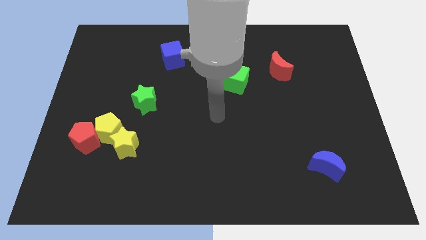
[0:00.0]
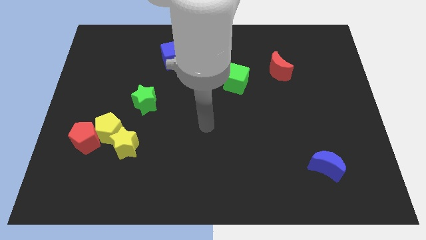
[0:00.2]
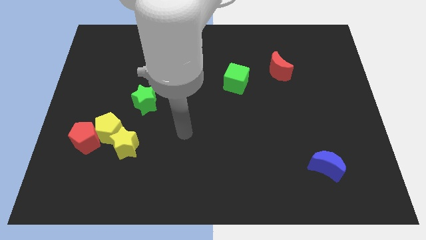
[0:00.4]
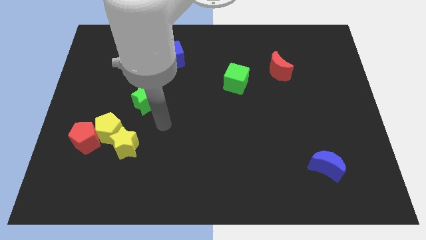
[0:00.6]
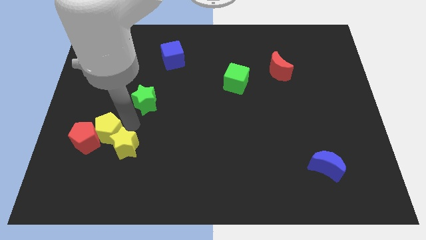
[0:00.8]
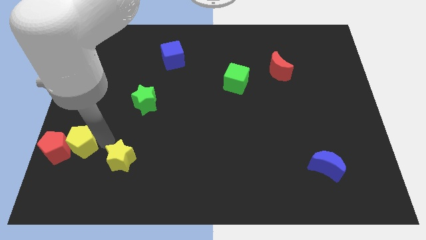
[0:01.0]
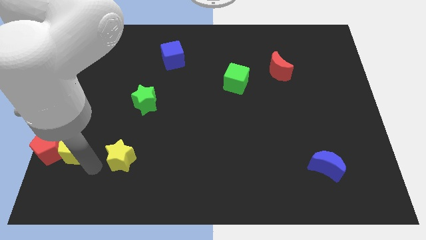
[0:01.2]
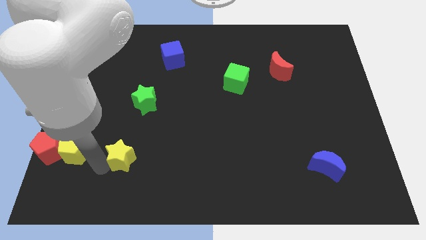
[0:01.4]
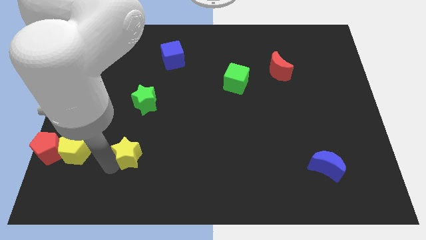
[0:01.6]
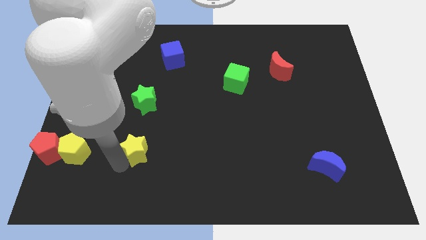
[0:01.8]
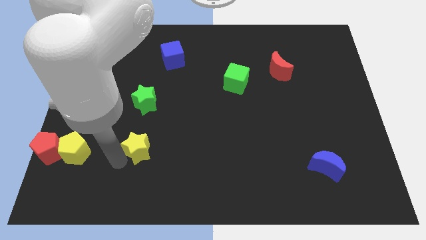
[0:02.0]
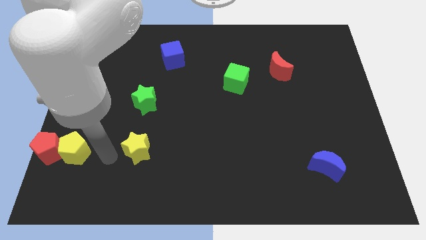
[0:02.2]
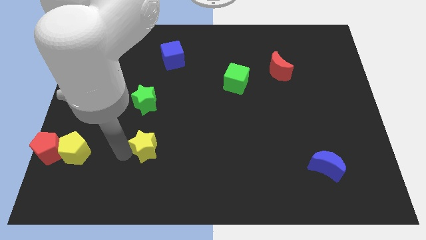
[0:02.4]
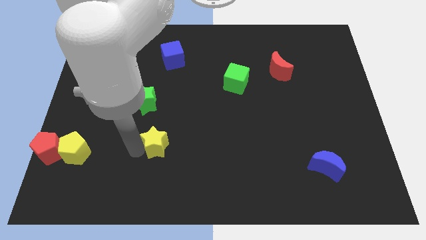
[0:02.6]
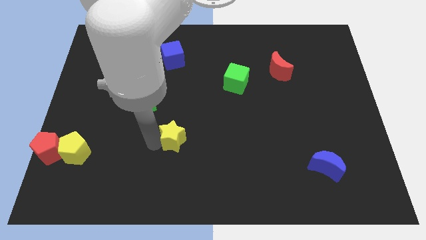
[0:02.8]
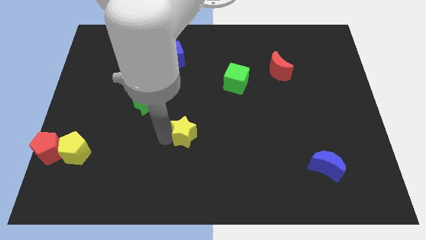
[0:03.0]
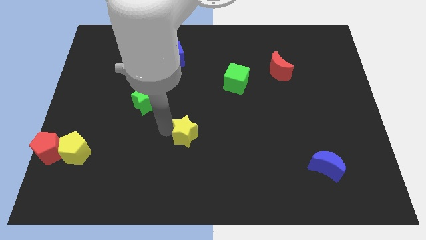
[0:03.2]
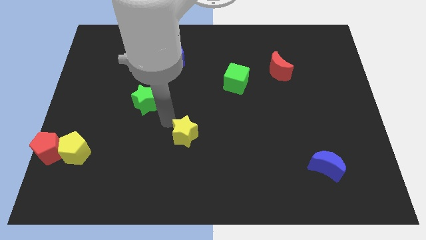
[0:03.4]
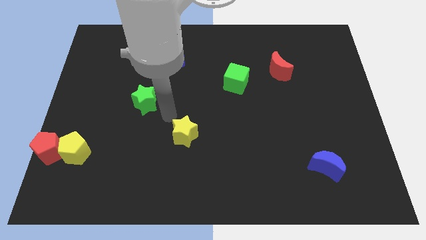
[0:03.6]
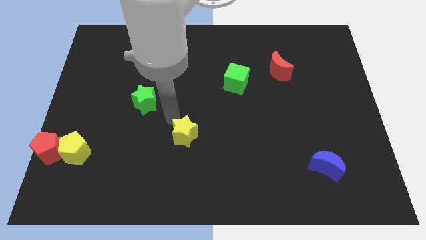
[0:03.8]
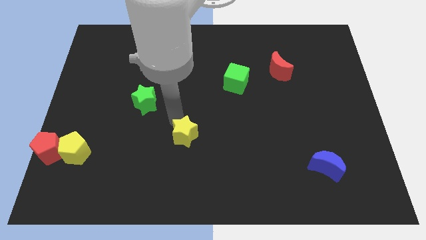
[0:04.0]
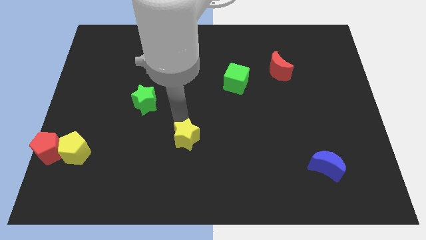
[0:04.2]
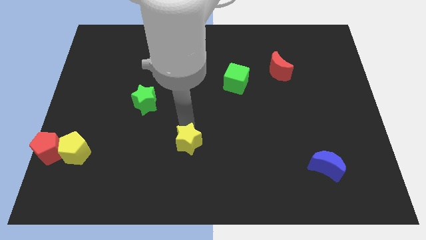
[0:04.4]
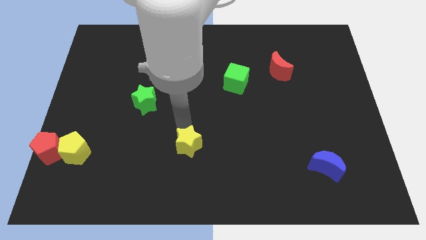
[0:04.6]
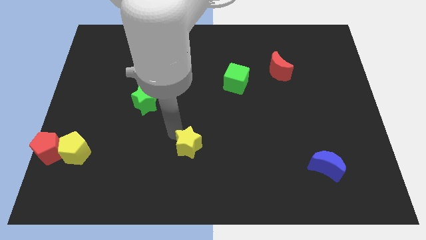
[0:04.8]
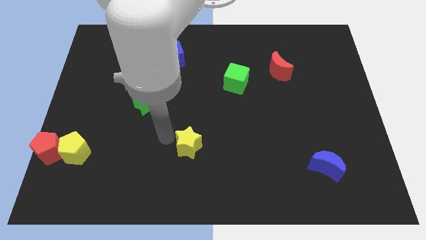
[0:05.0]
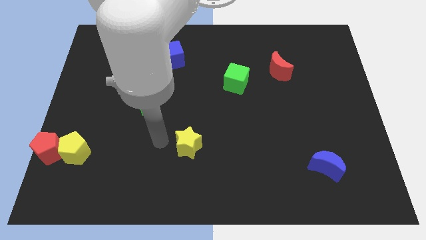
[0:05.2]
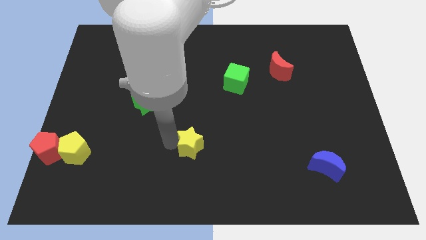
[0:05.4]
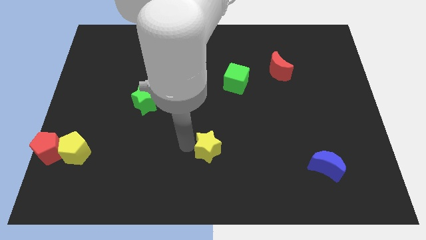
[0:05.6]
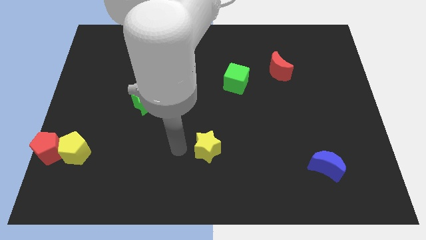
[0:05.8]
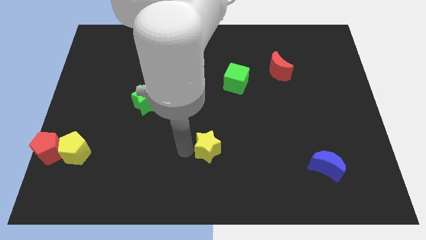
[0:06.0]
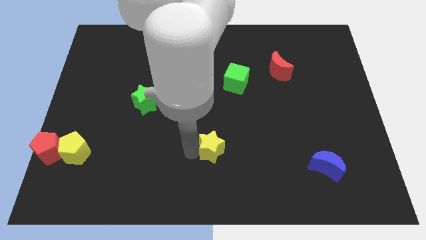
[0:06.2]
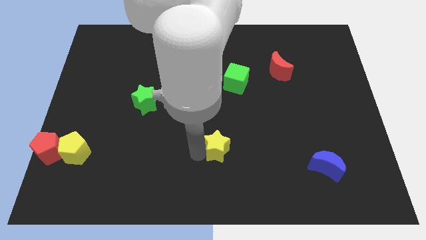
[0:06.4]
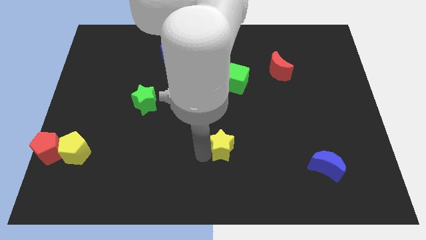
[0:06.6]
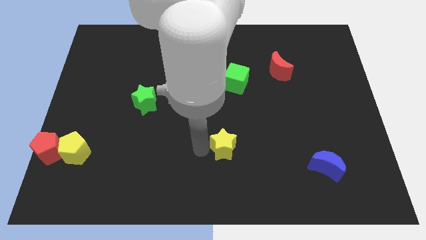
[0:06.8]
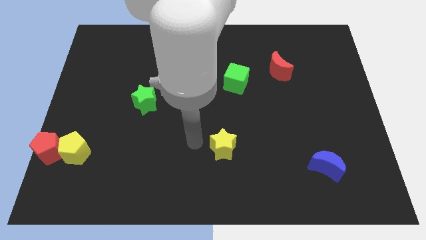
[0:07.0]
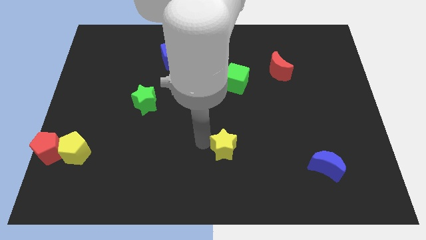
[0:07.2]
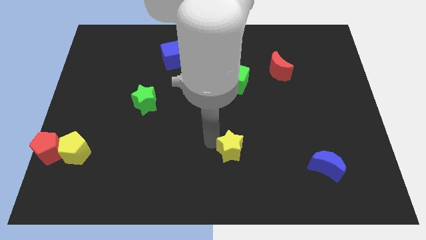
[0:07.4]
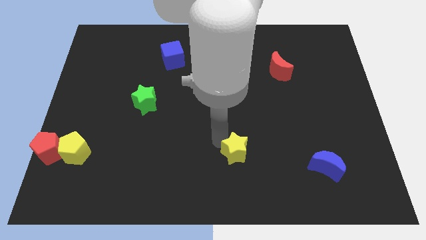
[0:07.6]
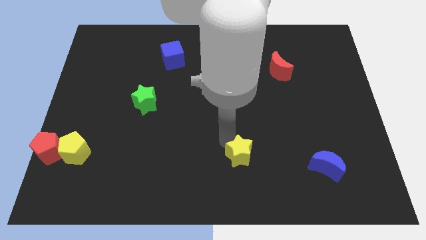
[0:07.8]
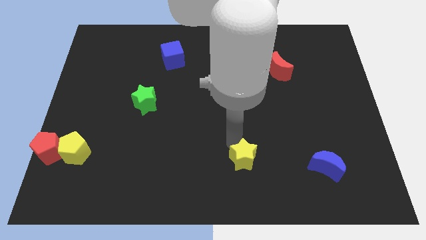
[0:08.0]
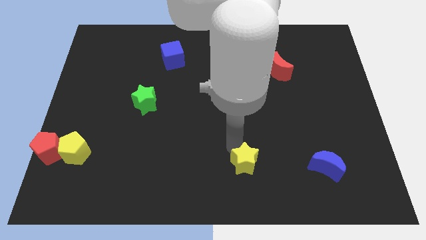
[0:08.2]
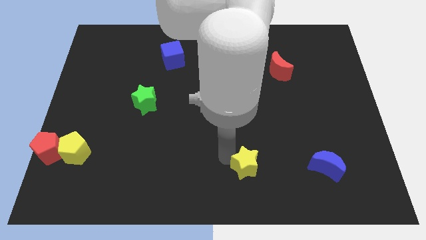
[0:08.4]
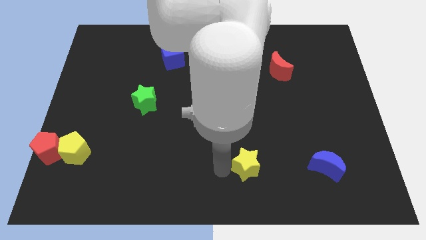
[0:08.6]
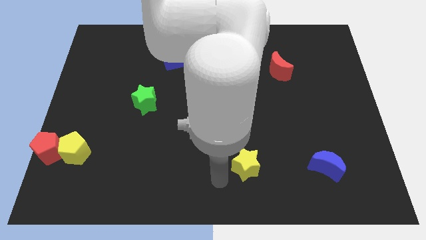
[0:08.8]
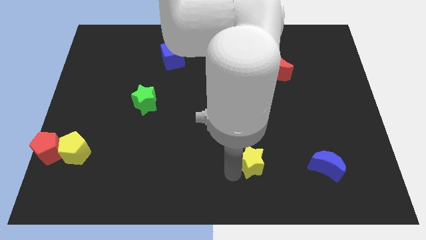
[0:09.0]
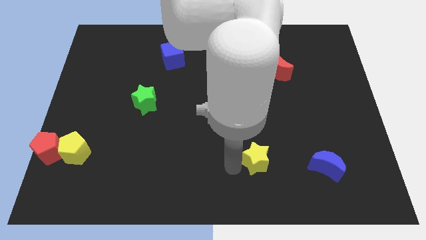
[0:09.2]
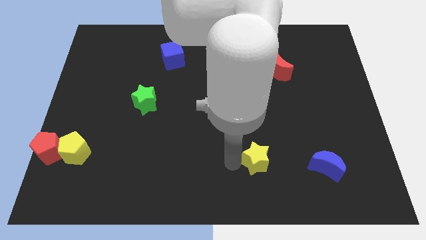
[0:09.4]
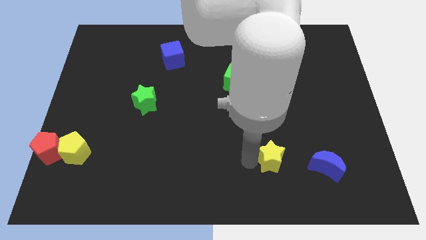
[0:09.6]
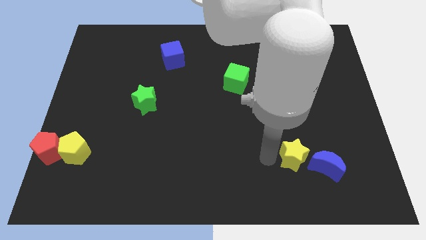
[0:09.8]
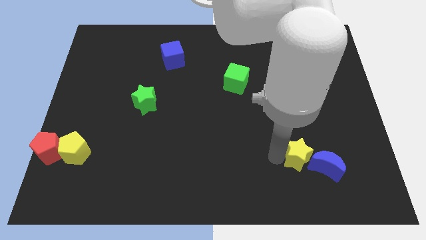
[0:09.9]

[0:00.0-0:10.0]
move the yellow star close to the blue moon

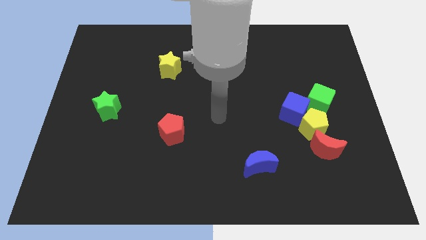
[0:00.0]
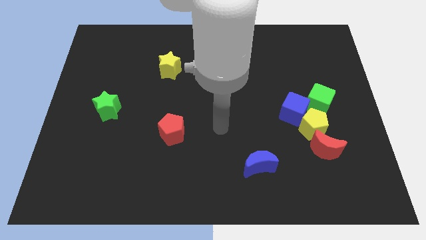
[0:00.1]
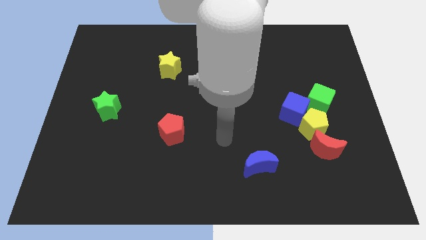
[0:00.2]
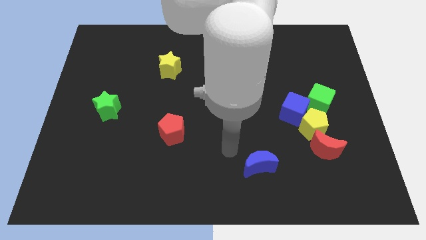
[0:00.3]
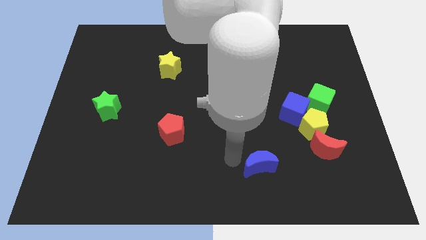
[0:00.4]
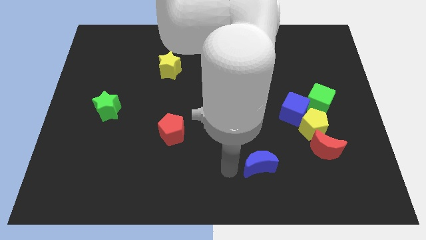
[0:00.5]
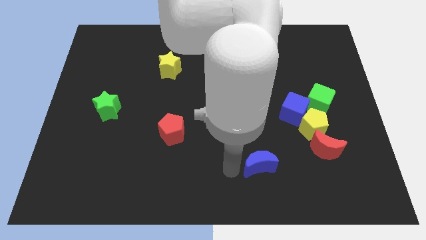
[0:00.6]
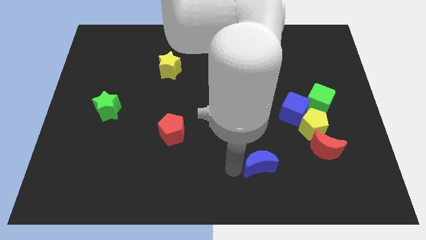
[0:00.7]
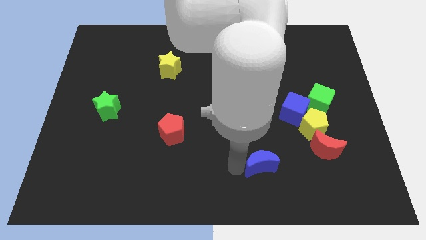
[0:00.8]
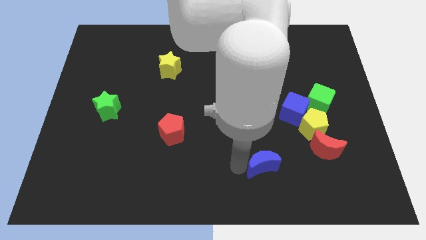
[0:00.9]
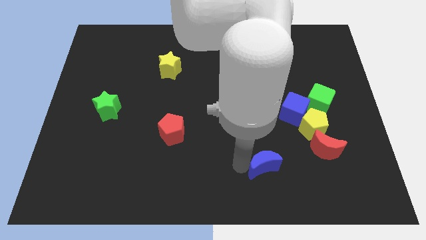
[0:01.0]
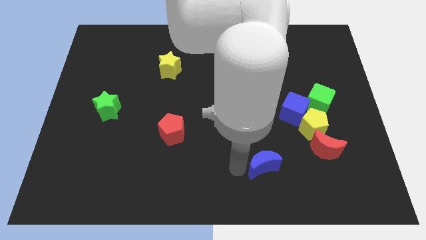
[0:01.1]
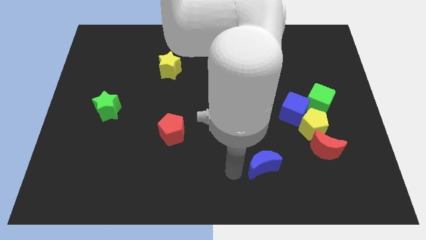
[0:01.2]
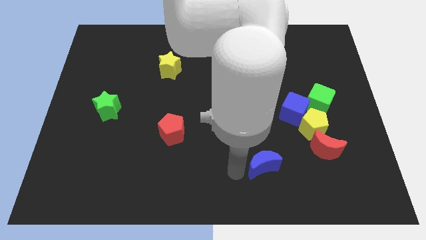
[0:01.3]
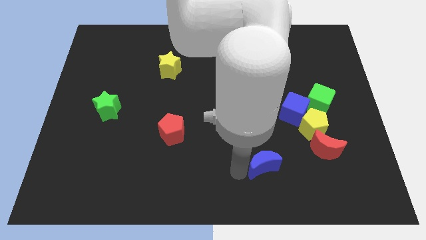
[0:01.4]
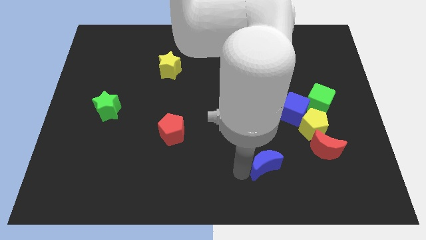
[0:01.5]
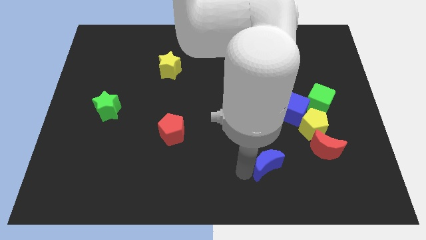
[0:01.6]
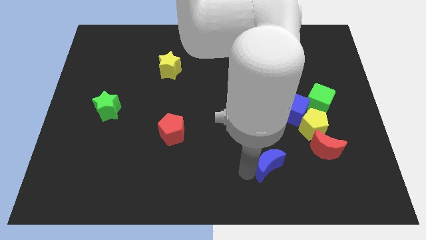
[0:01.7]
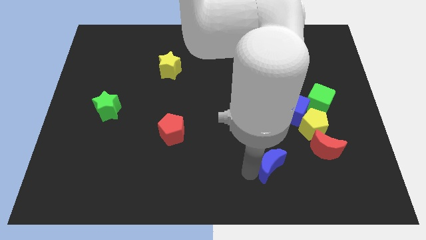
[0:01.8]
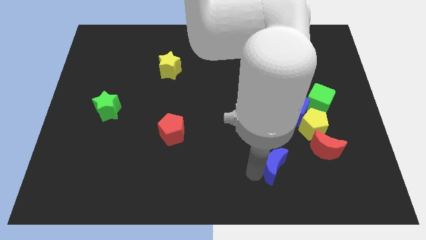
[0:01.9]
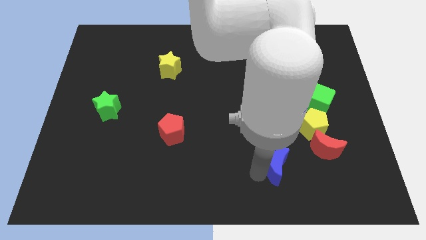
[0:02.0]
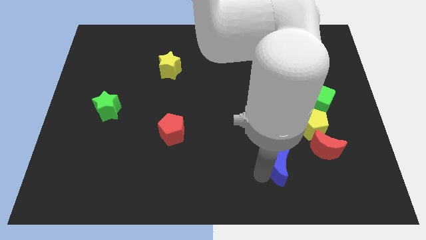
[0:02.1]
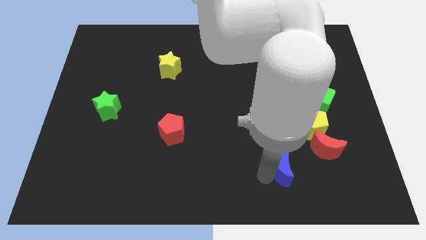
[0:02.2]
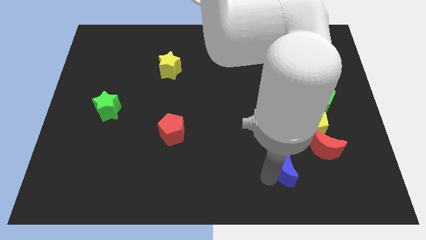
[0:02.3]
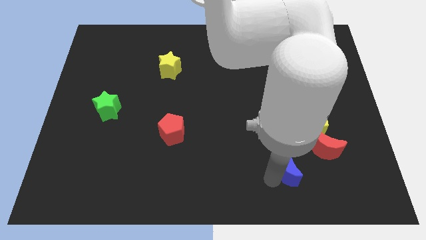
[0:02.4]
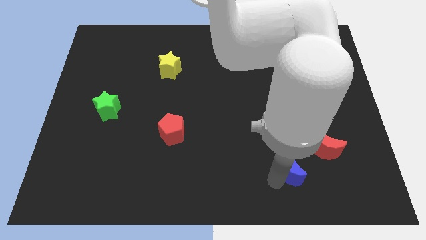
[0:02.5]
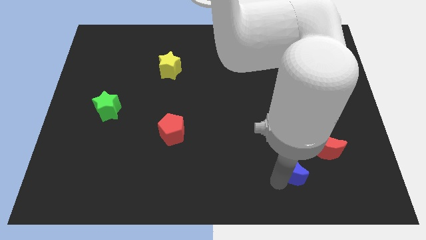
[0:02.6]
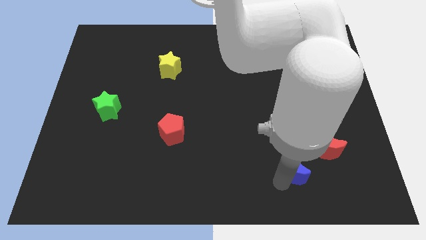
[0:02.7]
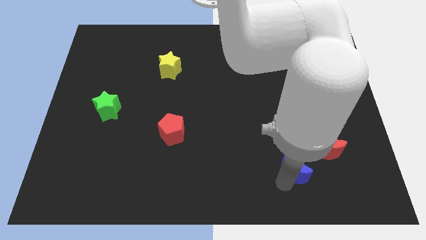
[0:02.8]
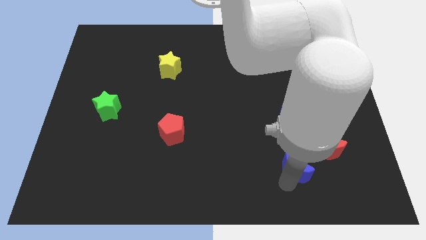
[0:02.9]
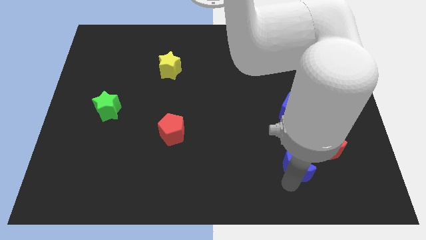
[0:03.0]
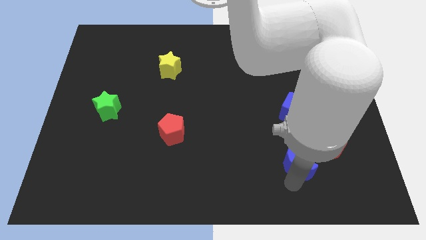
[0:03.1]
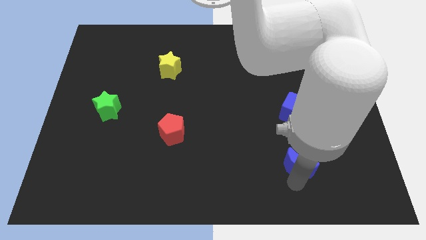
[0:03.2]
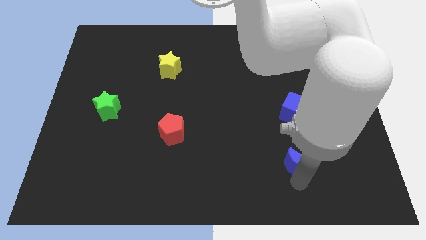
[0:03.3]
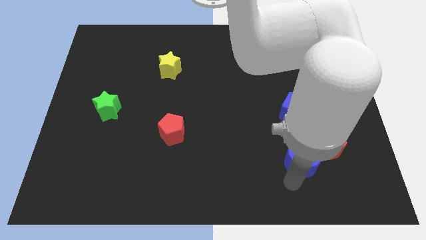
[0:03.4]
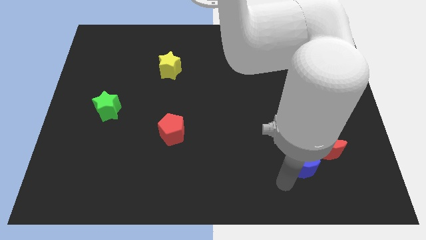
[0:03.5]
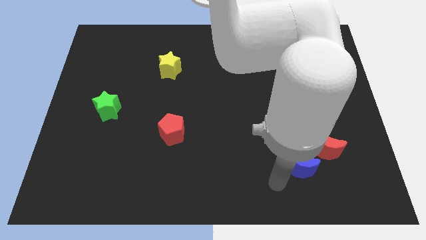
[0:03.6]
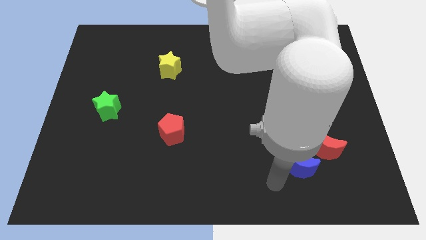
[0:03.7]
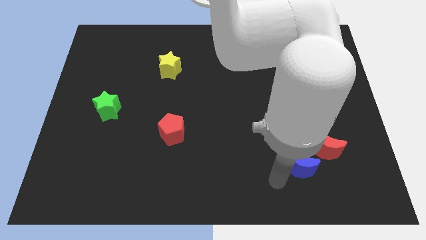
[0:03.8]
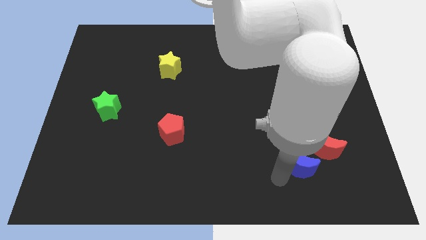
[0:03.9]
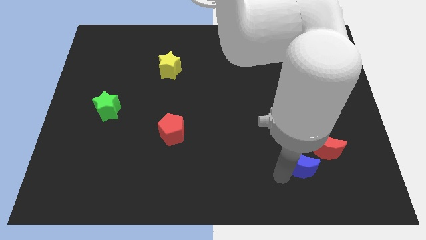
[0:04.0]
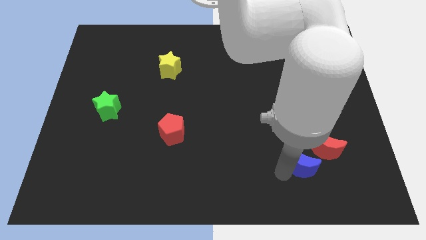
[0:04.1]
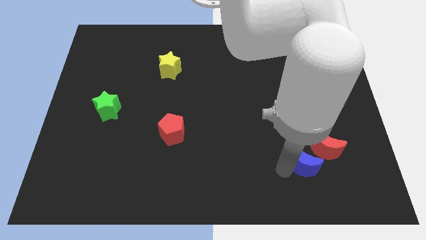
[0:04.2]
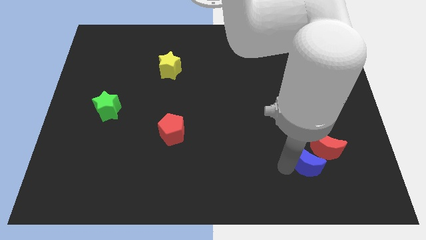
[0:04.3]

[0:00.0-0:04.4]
move the blue moon towards the red moon
